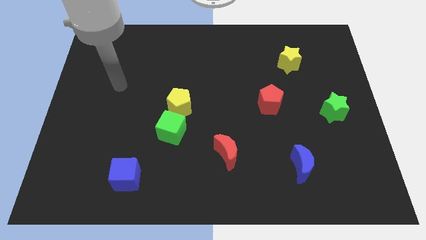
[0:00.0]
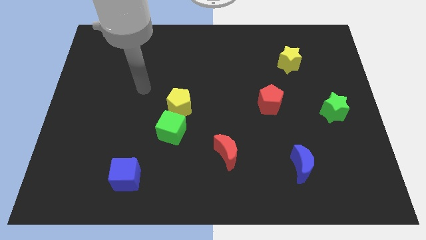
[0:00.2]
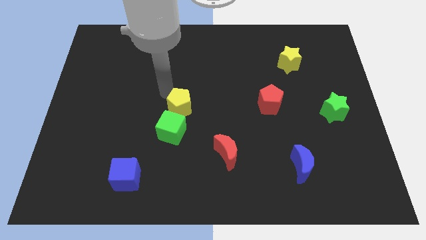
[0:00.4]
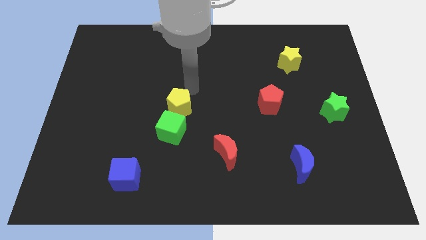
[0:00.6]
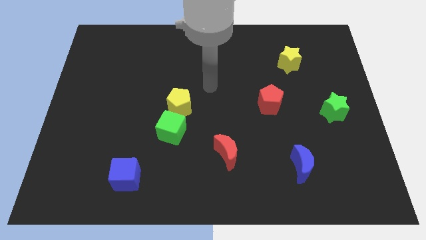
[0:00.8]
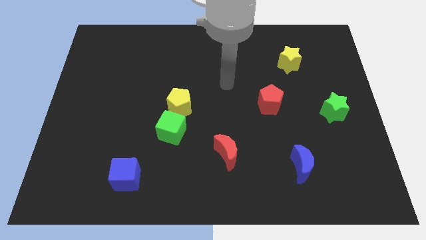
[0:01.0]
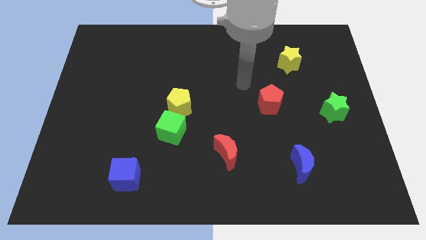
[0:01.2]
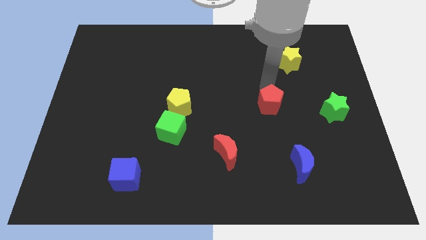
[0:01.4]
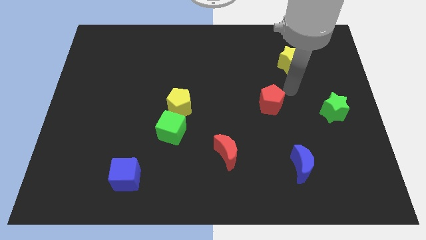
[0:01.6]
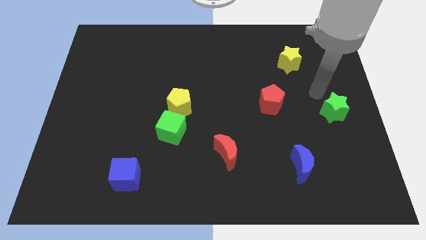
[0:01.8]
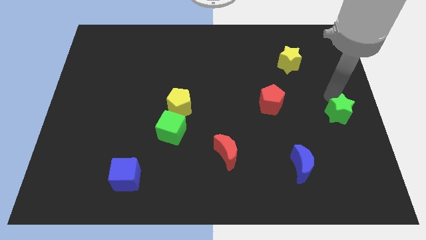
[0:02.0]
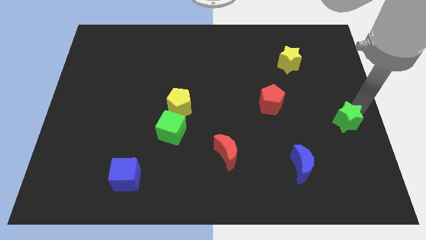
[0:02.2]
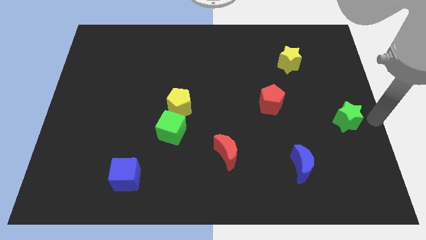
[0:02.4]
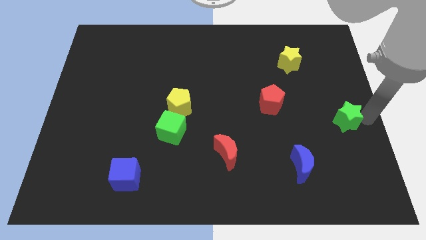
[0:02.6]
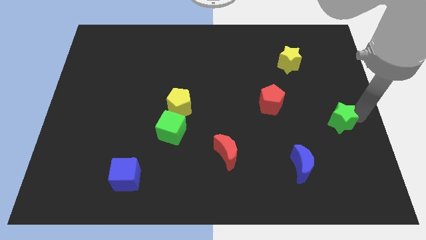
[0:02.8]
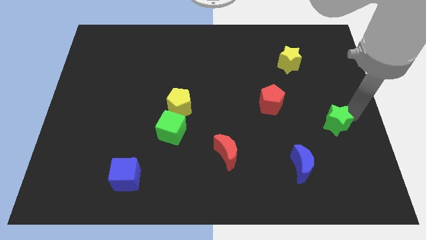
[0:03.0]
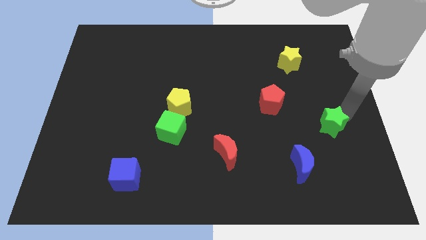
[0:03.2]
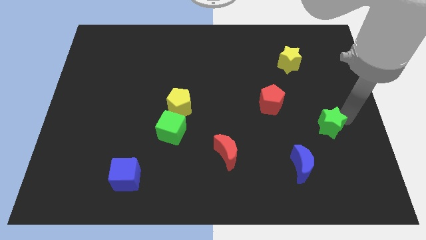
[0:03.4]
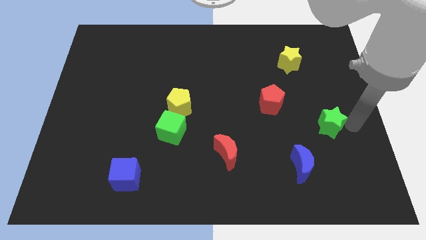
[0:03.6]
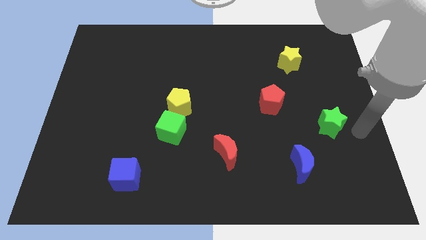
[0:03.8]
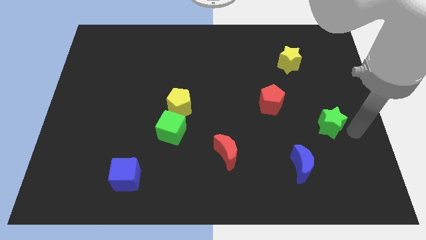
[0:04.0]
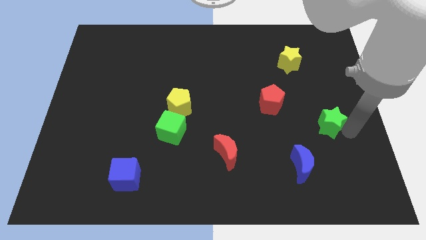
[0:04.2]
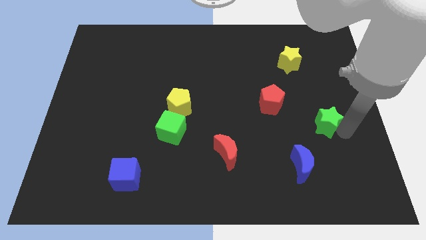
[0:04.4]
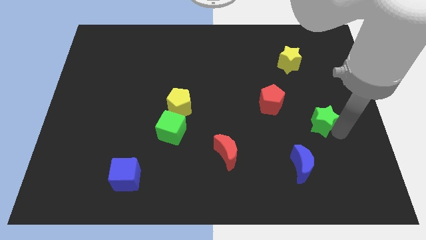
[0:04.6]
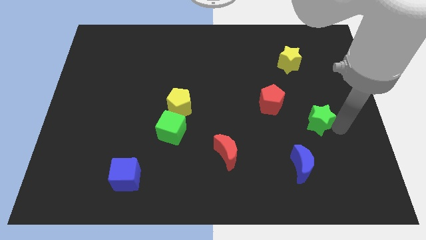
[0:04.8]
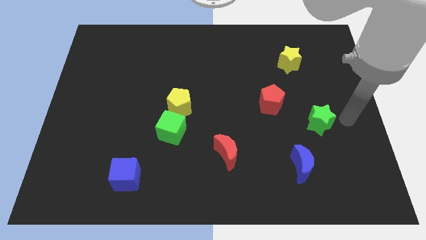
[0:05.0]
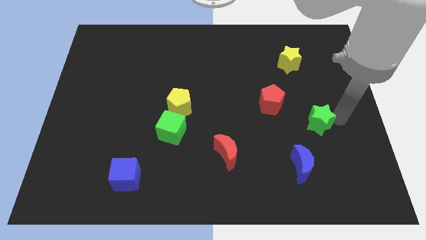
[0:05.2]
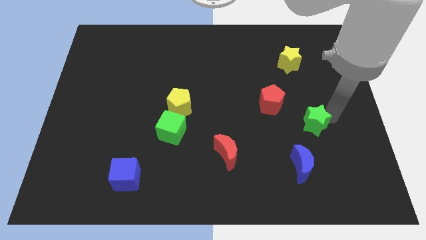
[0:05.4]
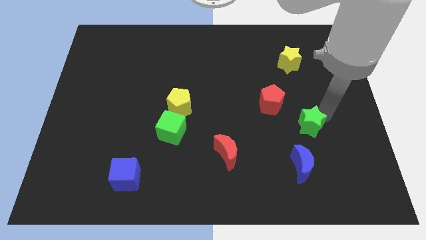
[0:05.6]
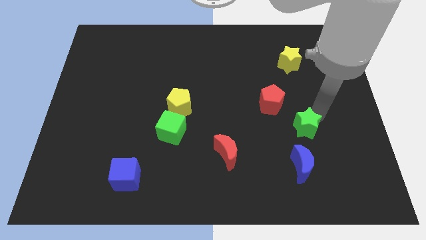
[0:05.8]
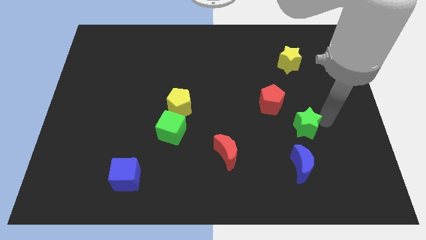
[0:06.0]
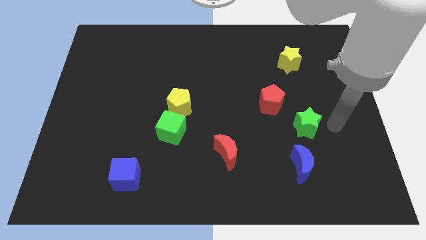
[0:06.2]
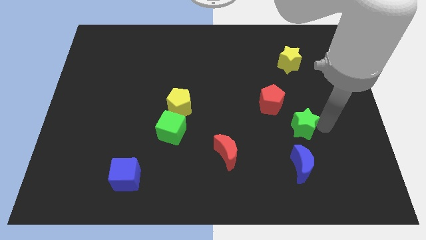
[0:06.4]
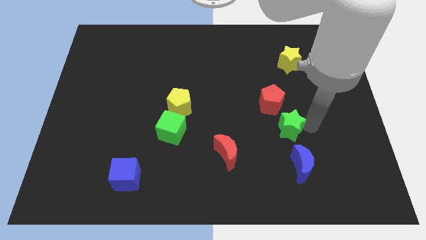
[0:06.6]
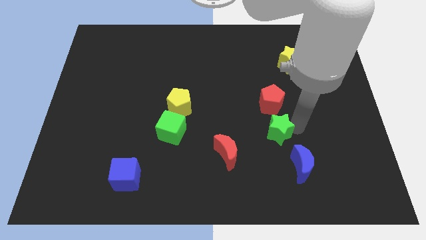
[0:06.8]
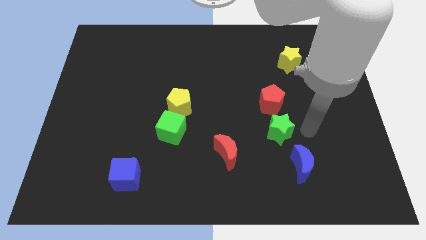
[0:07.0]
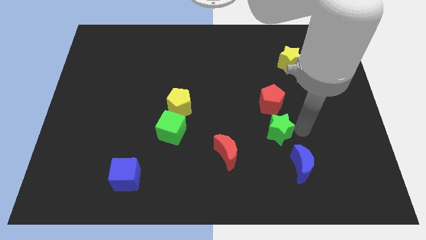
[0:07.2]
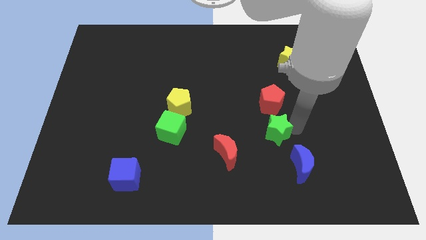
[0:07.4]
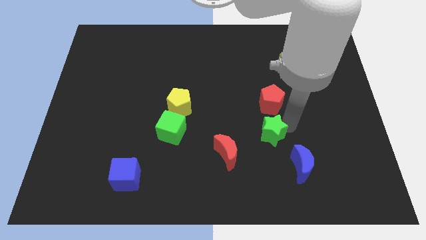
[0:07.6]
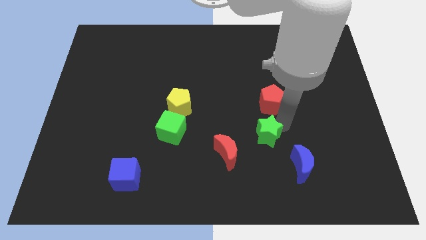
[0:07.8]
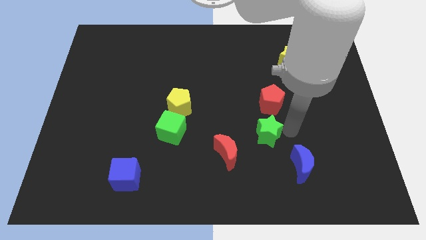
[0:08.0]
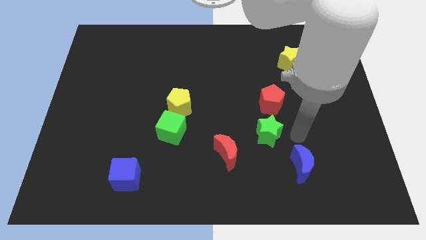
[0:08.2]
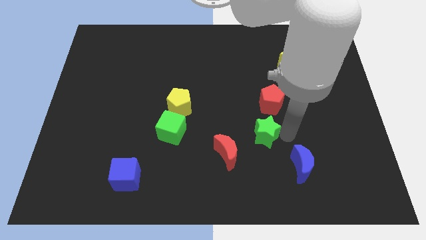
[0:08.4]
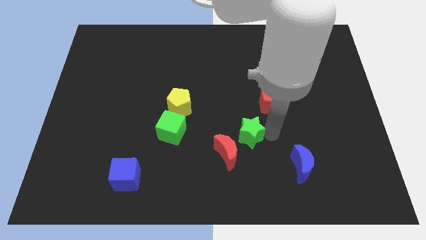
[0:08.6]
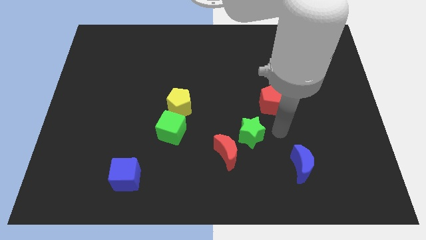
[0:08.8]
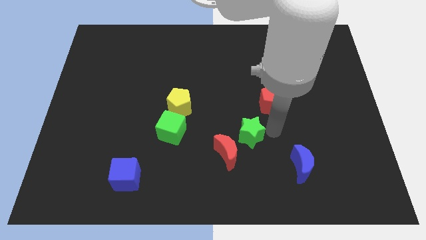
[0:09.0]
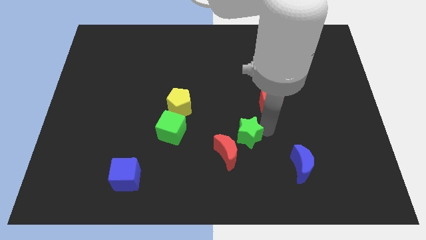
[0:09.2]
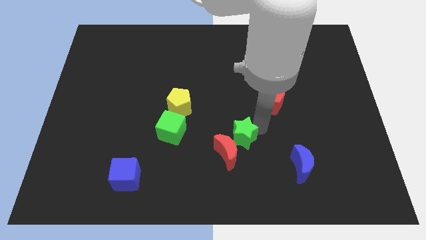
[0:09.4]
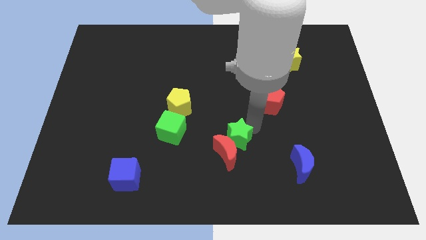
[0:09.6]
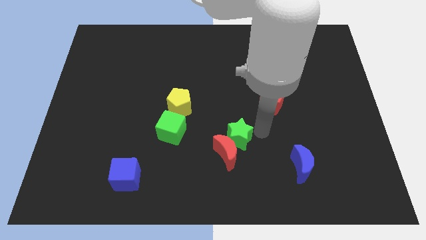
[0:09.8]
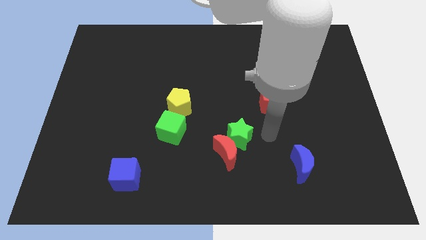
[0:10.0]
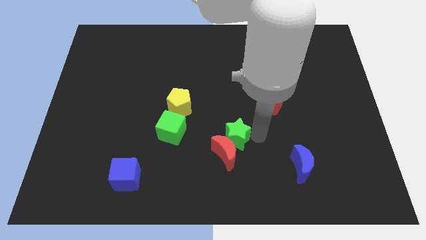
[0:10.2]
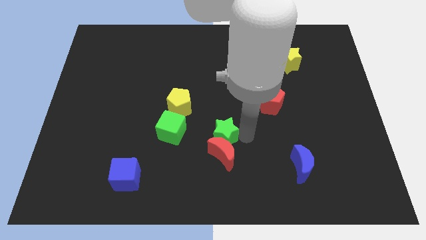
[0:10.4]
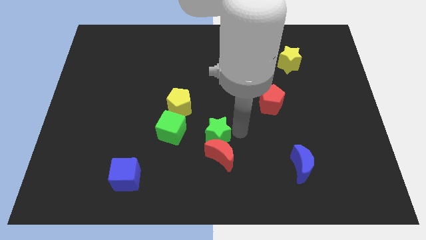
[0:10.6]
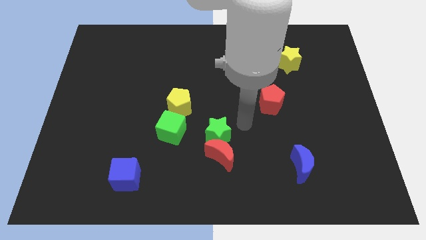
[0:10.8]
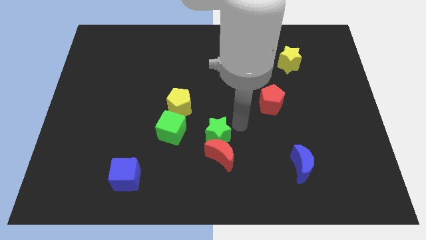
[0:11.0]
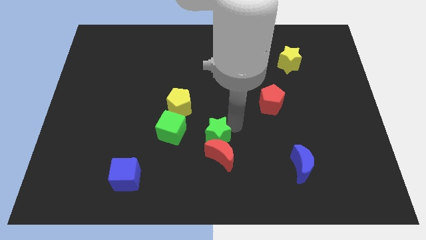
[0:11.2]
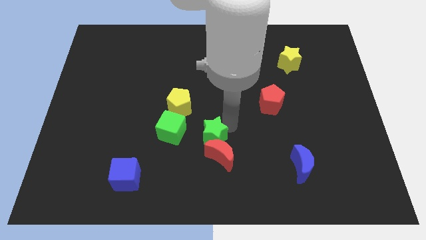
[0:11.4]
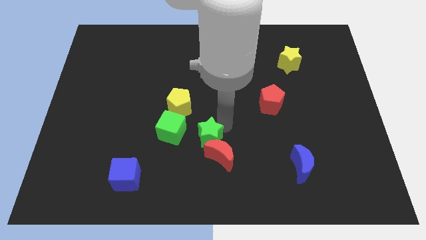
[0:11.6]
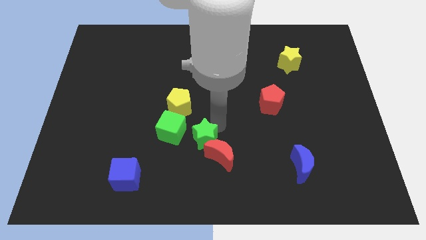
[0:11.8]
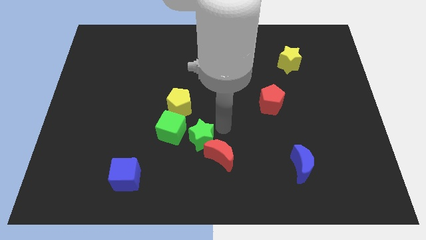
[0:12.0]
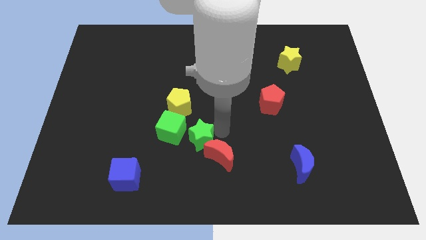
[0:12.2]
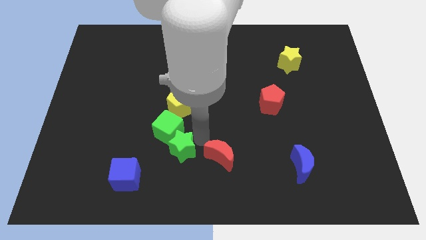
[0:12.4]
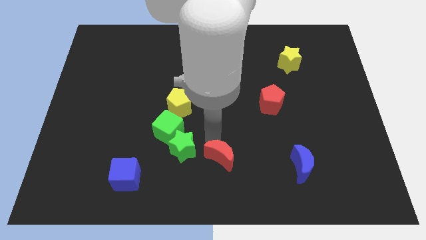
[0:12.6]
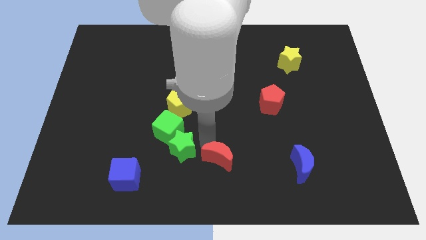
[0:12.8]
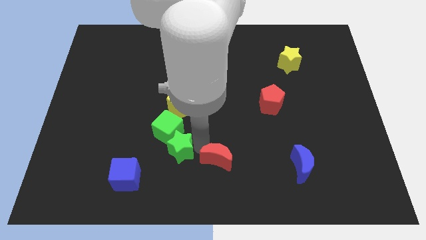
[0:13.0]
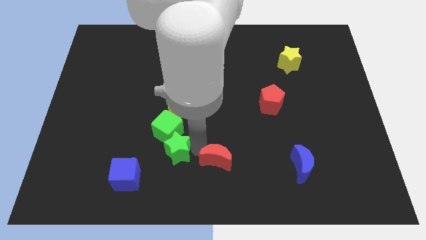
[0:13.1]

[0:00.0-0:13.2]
put the green star diagonally up and to the right of the blue cube

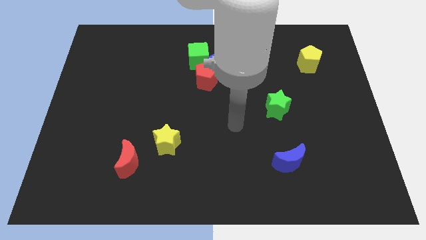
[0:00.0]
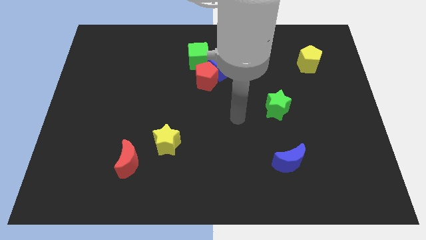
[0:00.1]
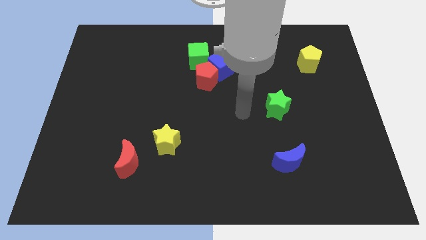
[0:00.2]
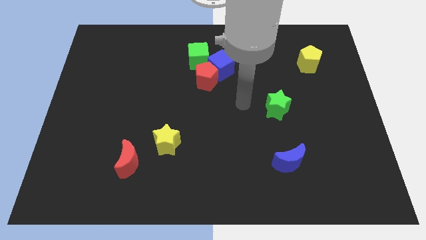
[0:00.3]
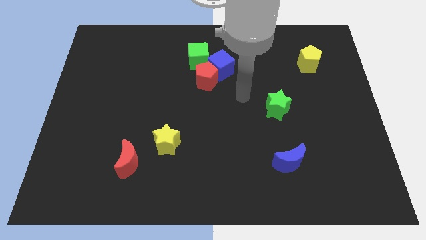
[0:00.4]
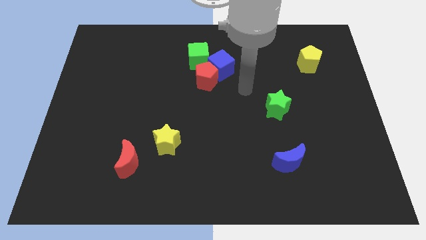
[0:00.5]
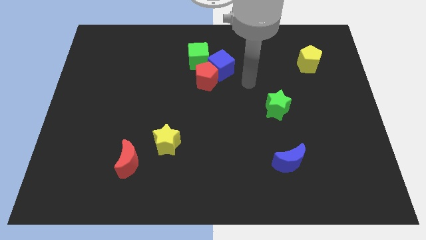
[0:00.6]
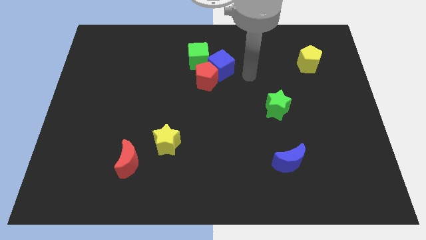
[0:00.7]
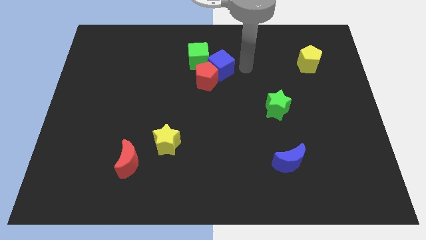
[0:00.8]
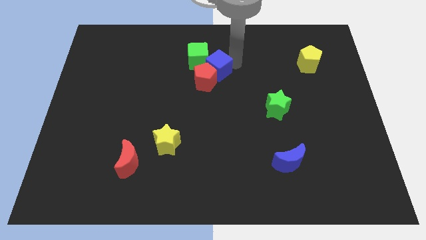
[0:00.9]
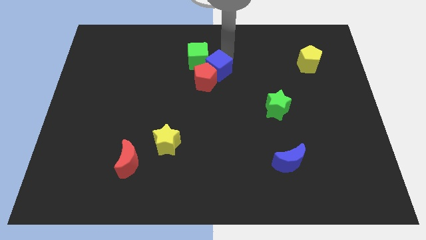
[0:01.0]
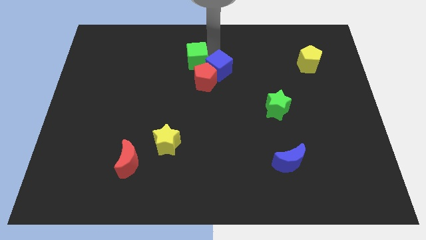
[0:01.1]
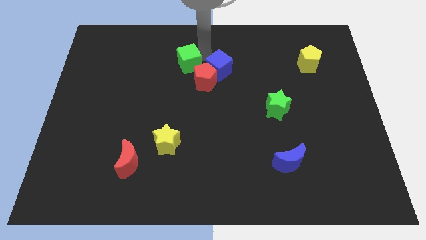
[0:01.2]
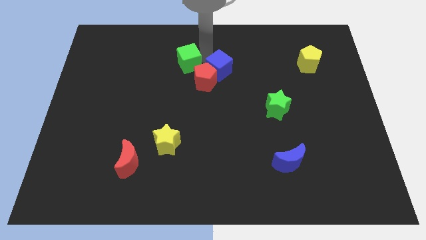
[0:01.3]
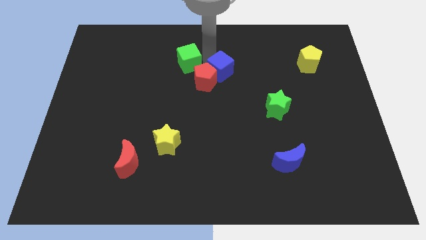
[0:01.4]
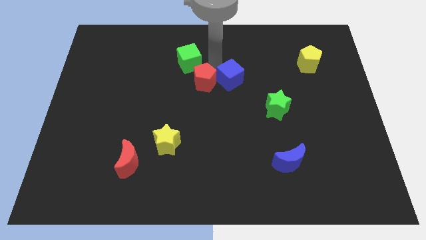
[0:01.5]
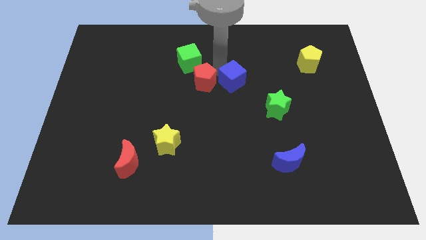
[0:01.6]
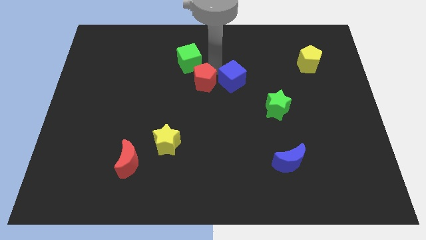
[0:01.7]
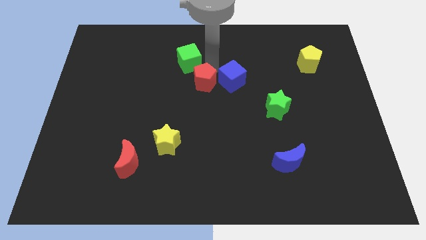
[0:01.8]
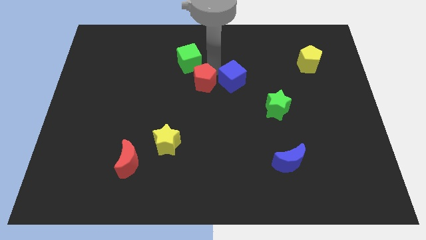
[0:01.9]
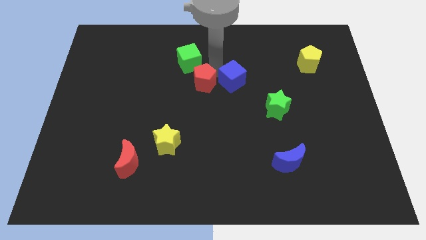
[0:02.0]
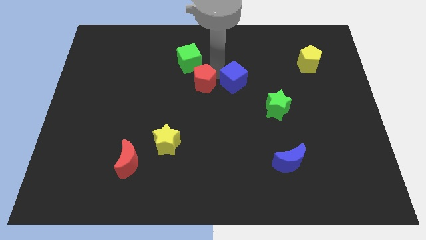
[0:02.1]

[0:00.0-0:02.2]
slide the blue cube to the top left of the green star
